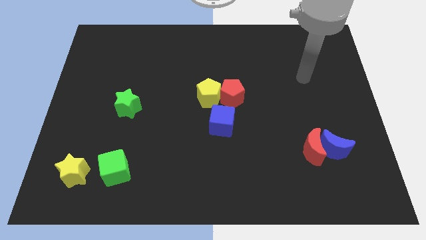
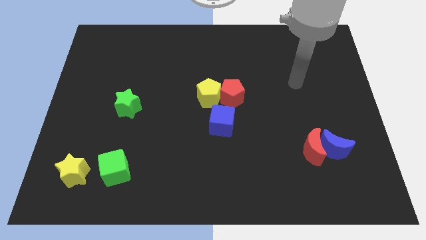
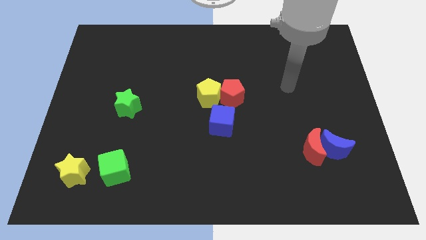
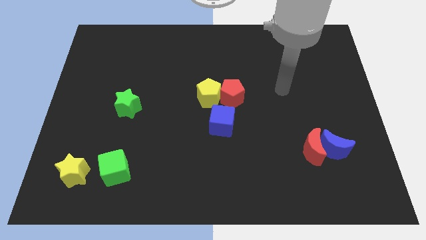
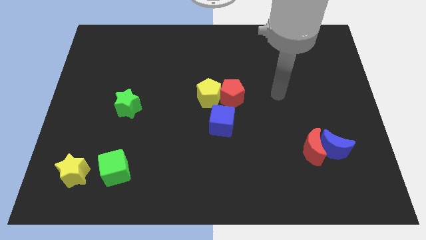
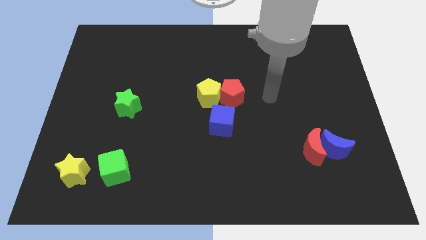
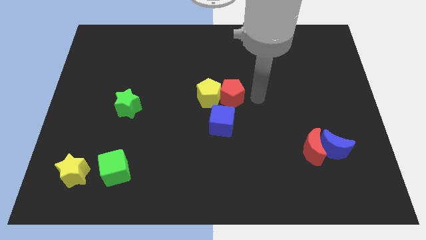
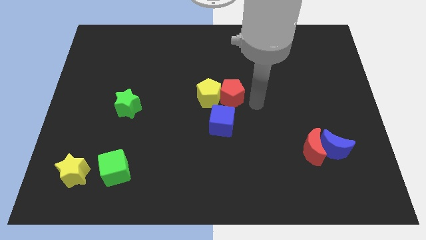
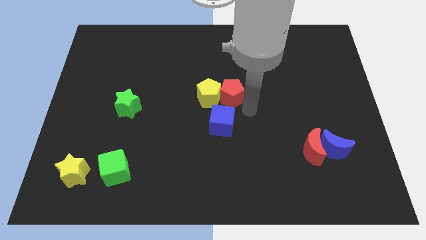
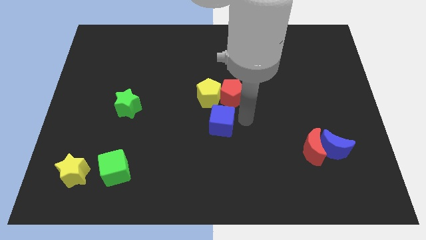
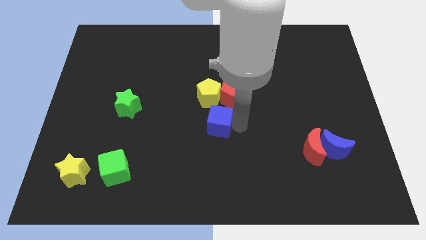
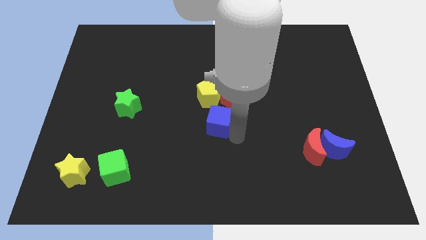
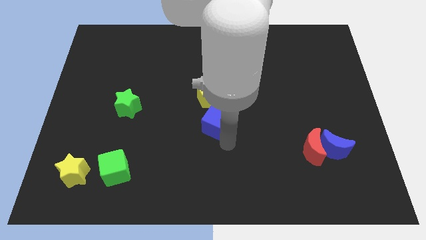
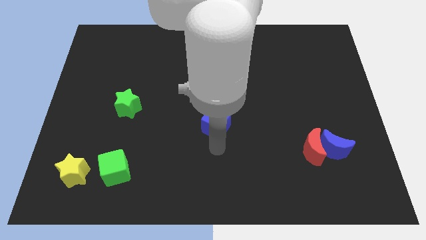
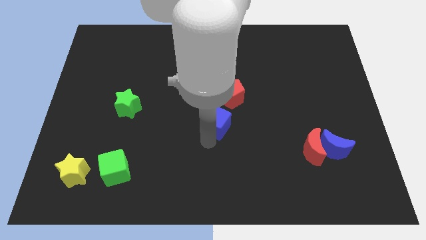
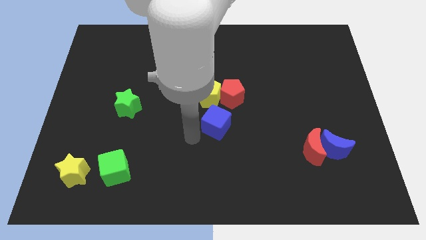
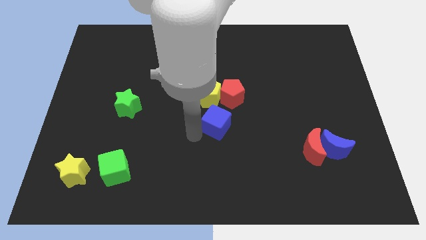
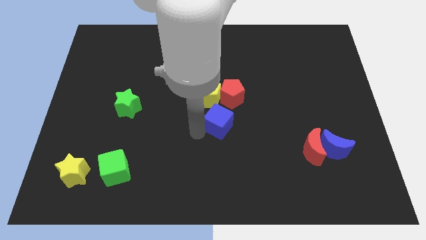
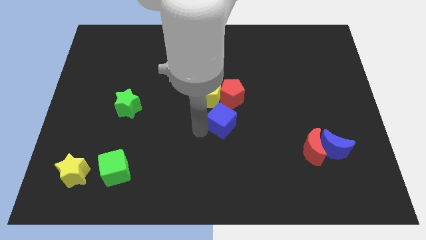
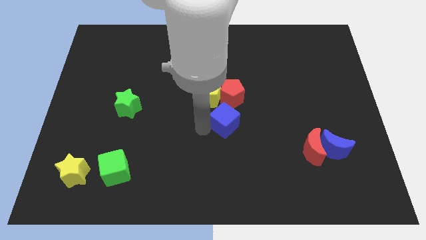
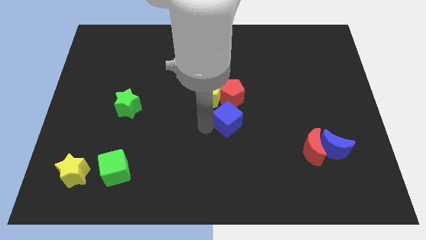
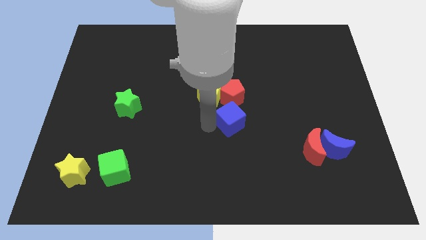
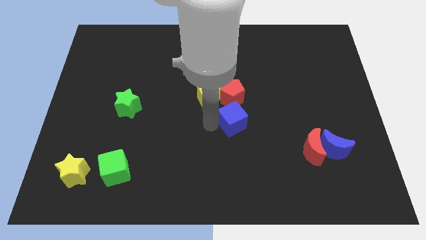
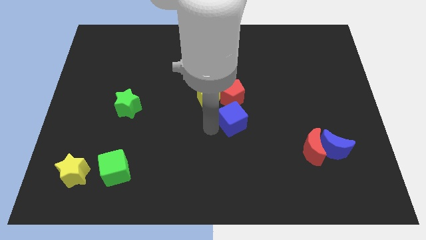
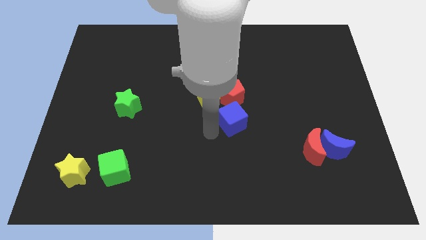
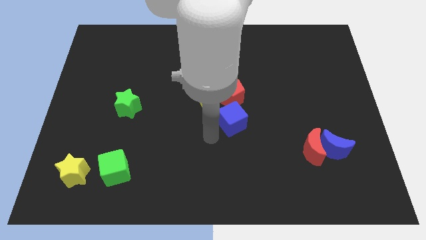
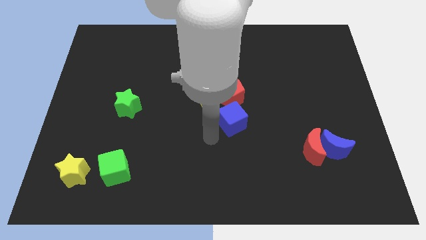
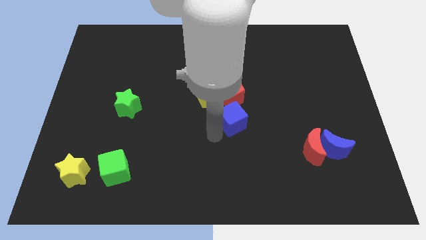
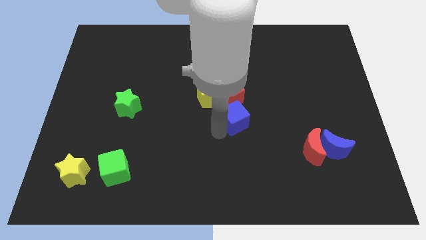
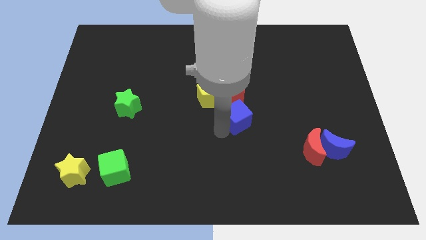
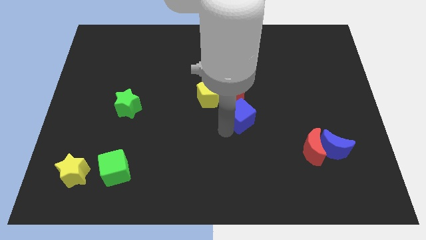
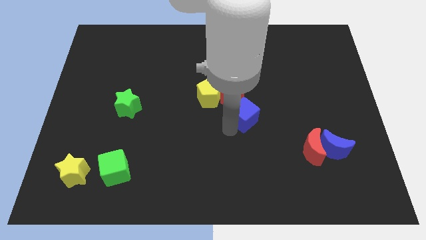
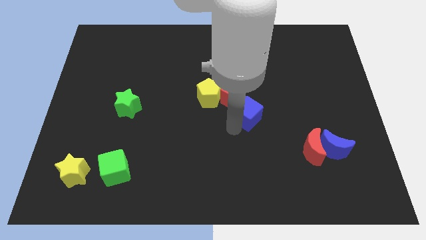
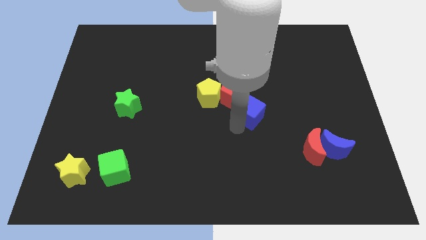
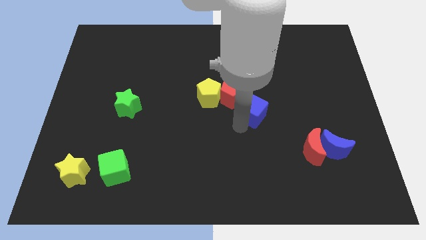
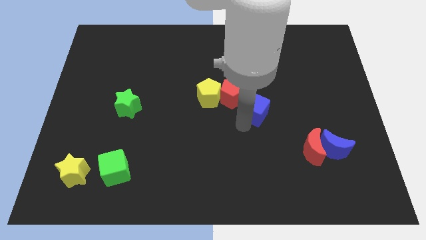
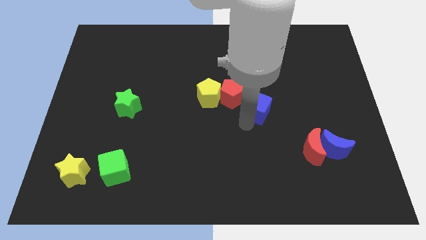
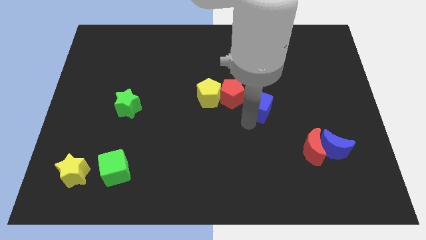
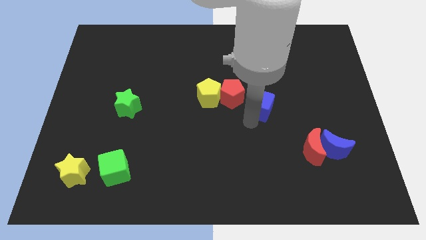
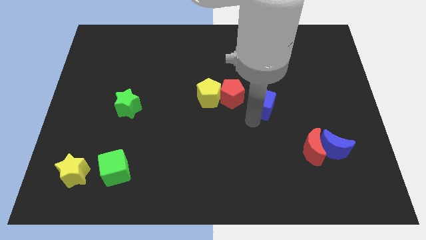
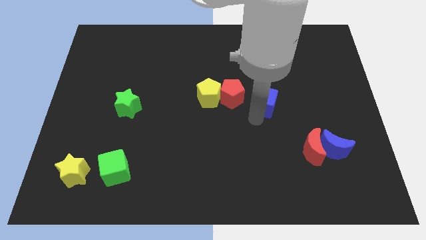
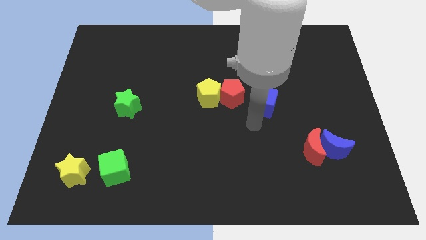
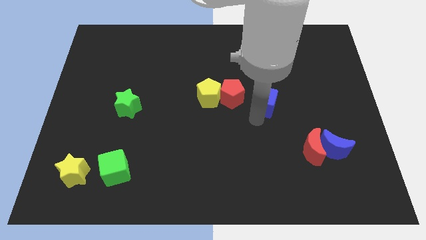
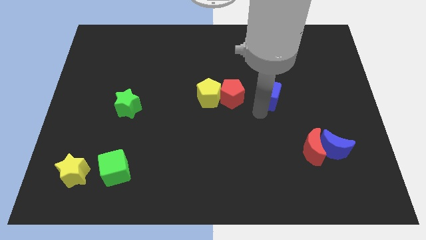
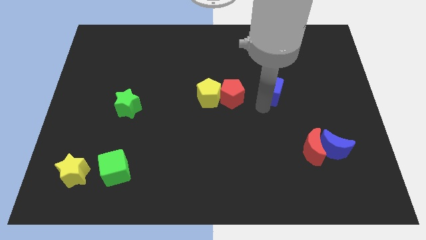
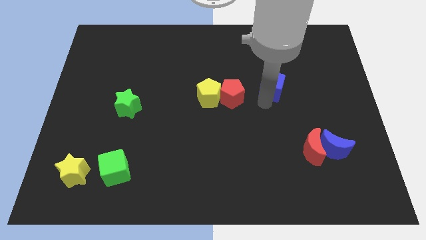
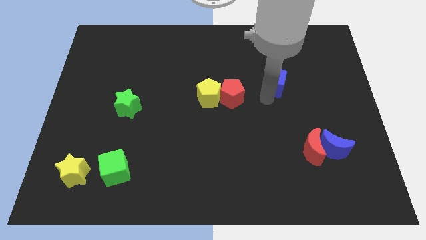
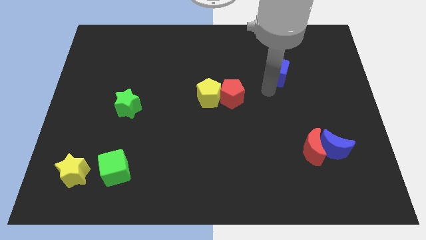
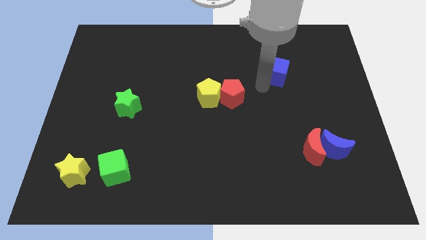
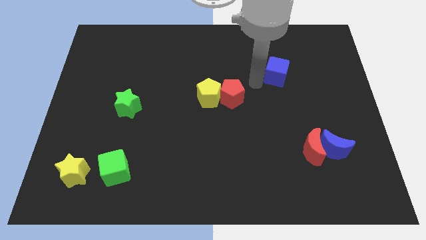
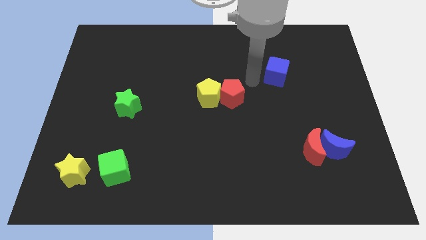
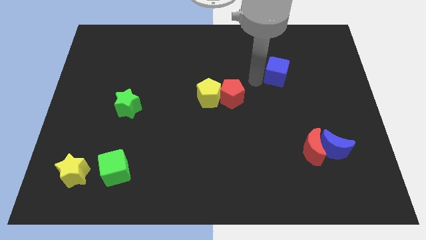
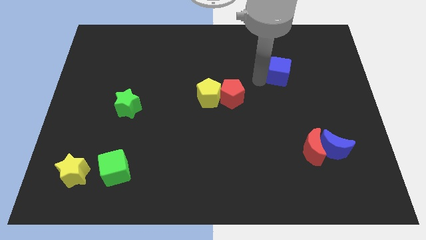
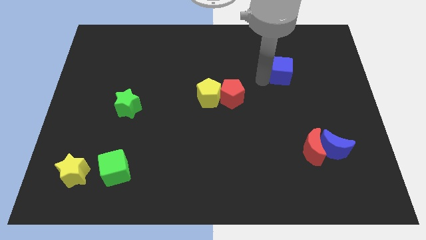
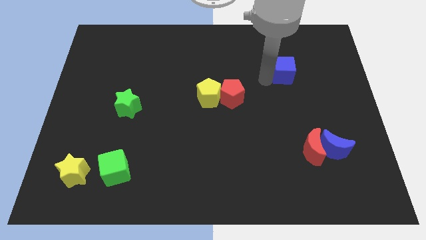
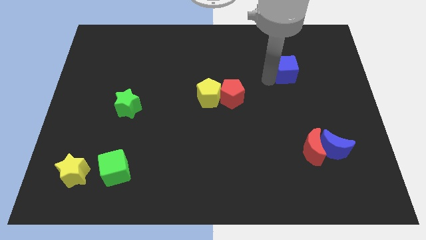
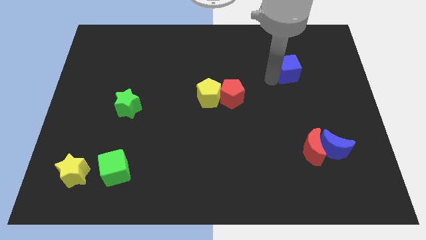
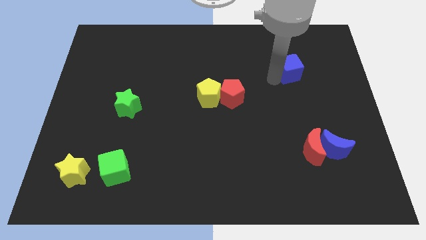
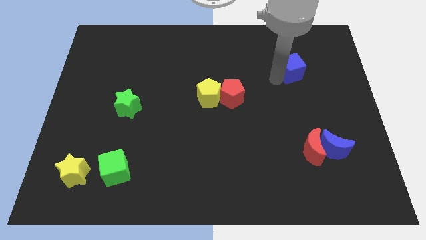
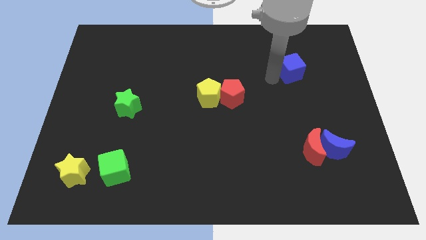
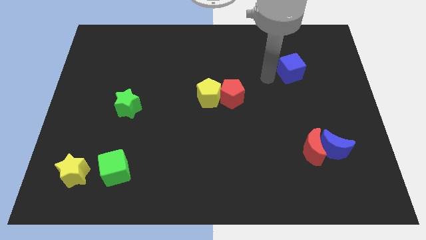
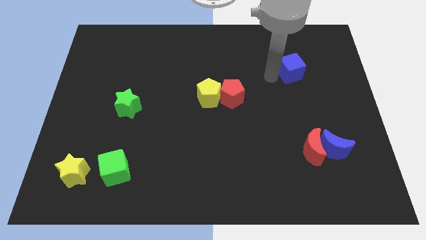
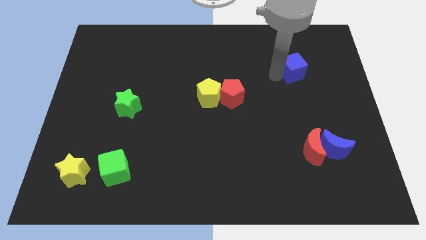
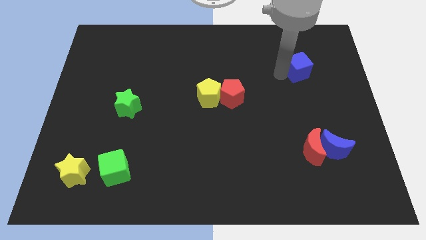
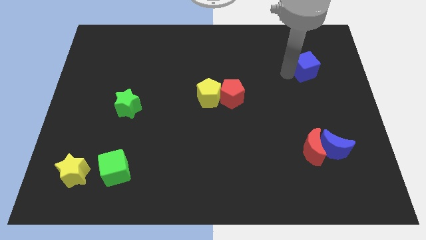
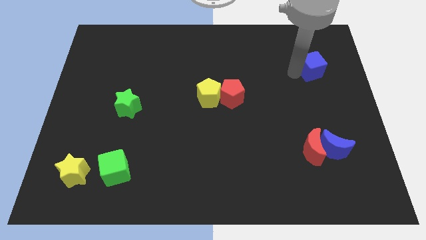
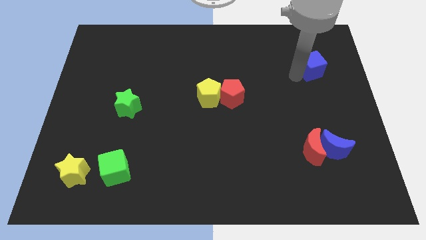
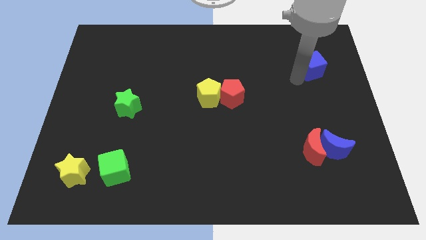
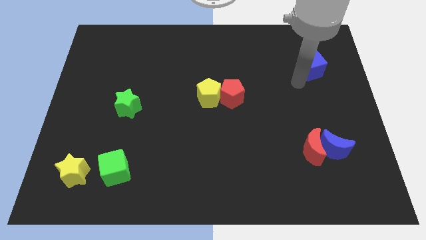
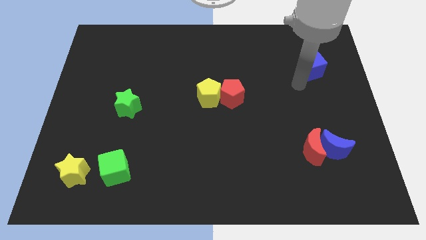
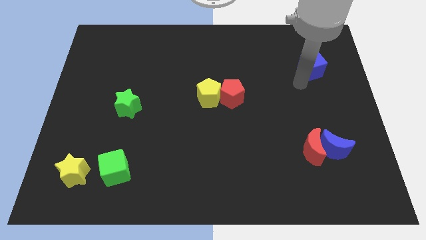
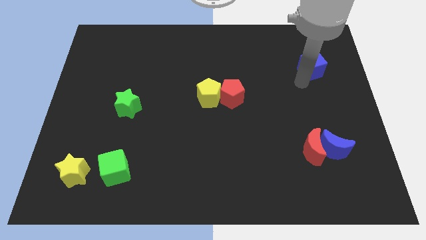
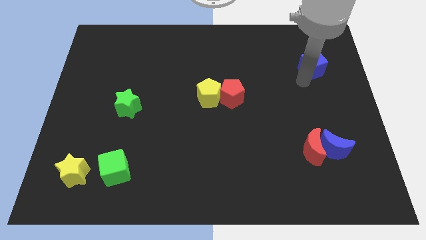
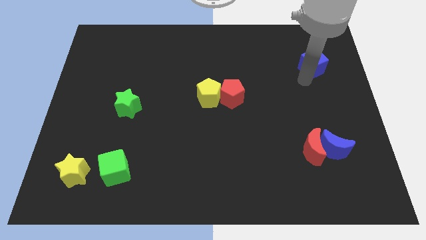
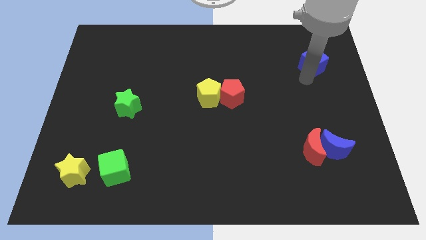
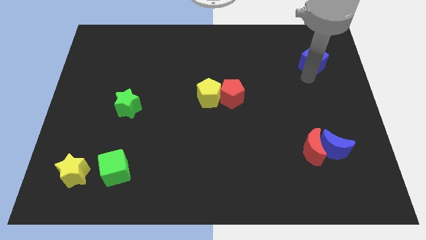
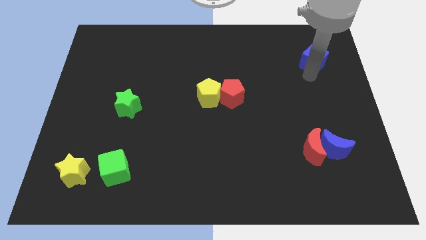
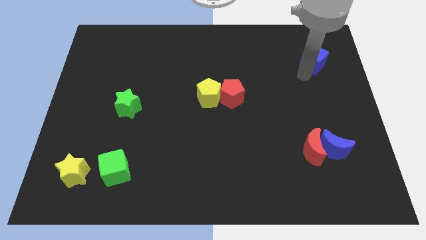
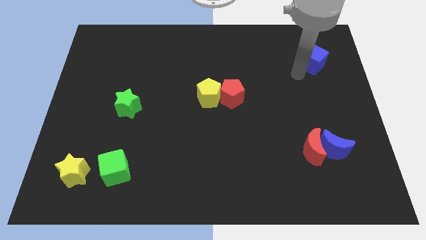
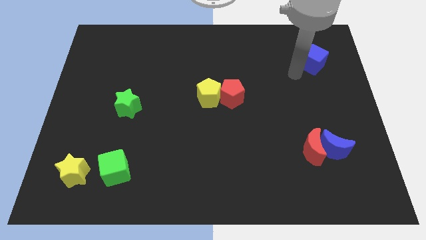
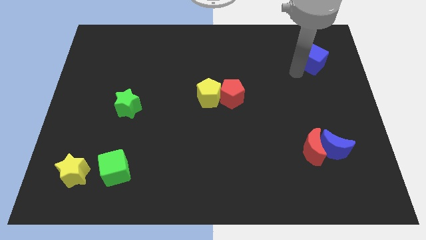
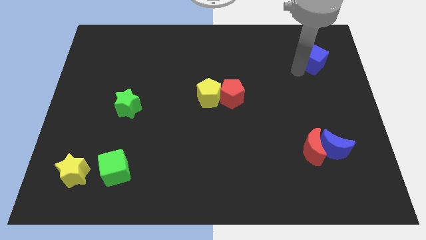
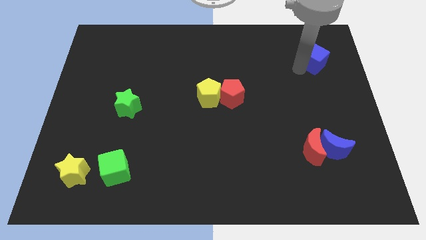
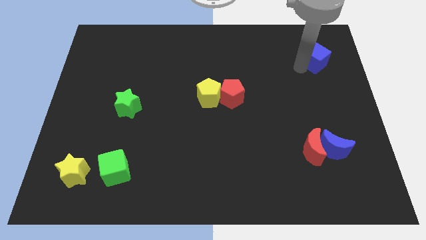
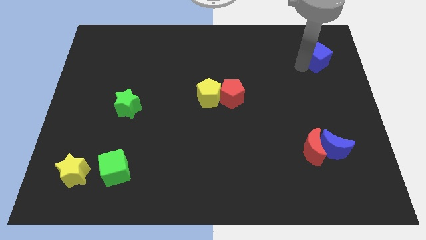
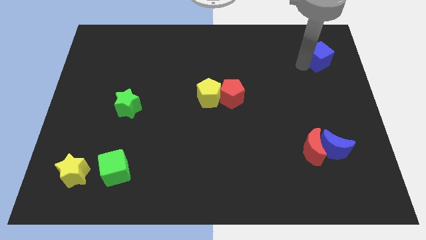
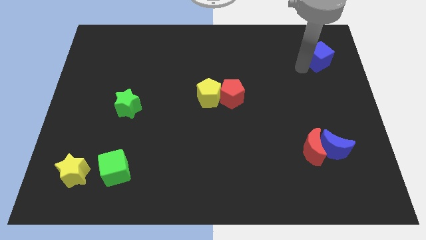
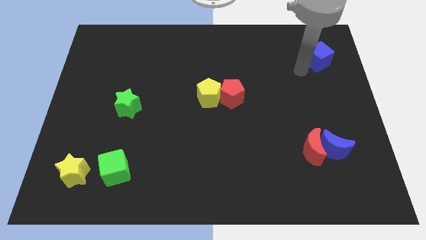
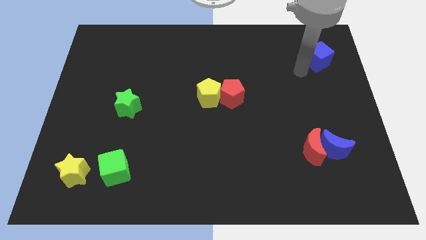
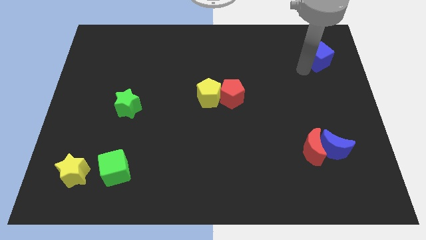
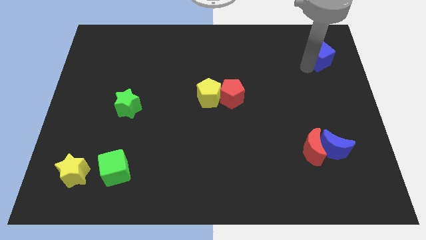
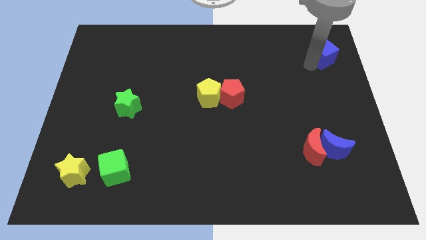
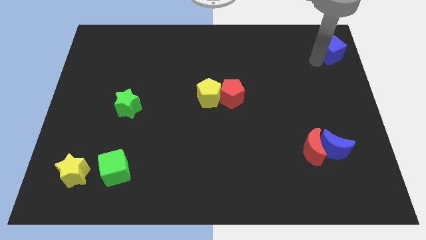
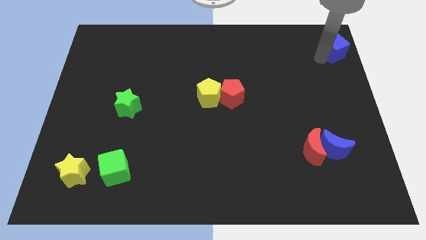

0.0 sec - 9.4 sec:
push the blue cube to the top right
